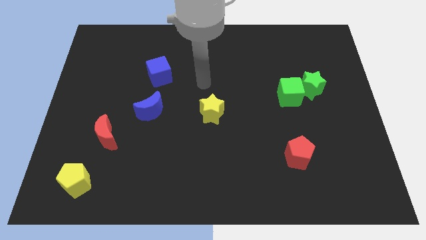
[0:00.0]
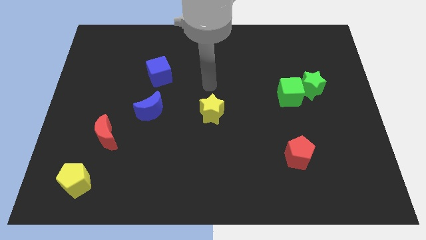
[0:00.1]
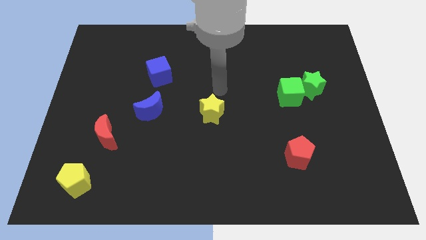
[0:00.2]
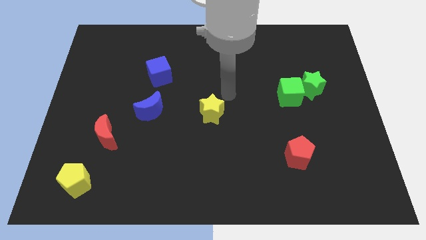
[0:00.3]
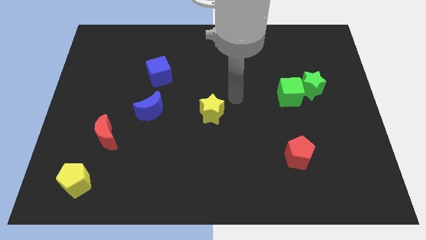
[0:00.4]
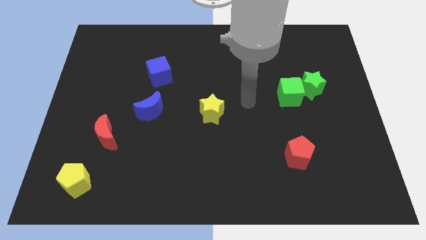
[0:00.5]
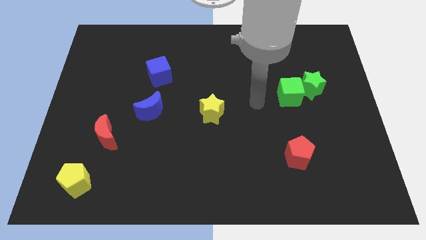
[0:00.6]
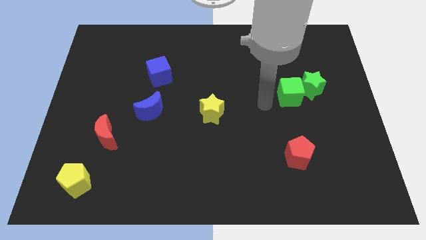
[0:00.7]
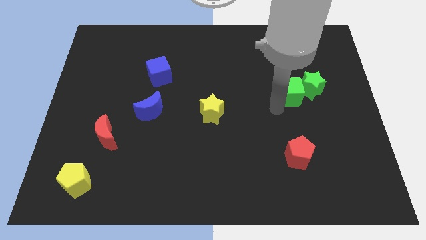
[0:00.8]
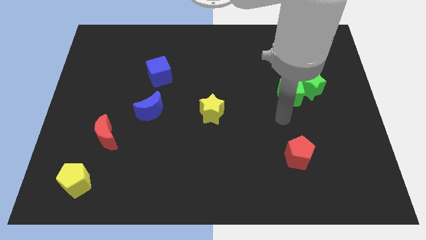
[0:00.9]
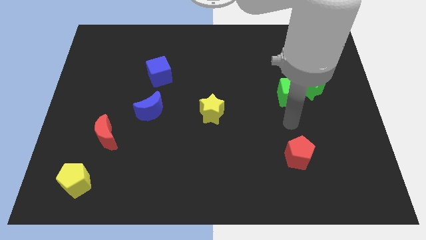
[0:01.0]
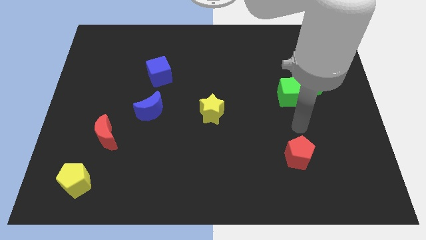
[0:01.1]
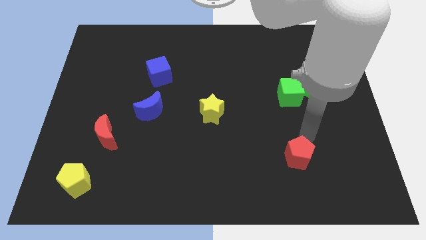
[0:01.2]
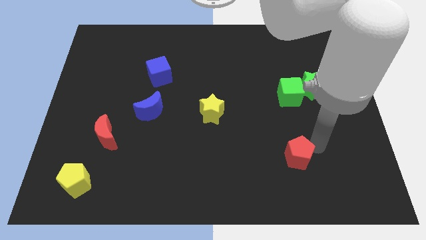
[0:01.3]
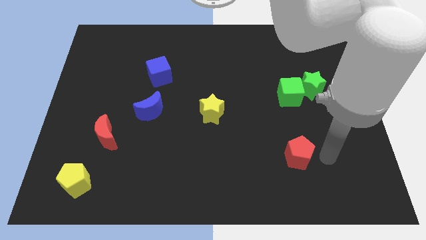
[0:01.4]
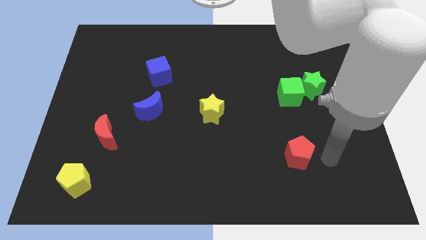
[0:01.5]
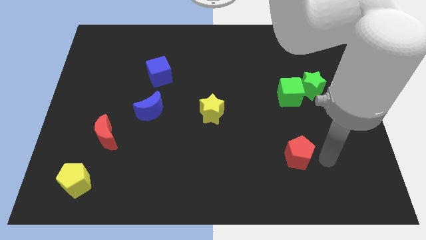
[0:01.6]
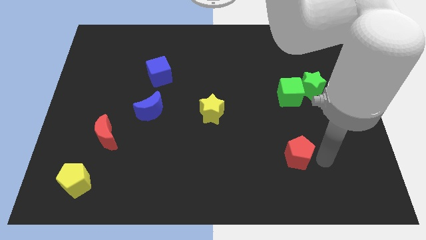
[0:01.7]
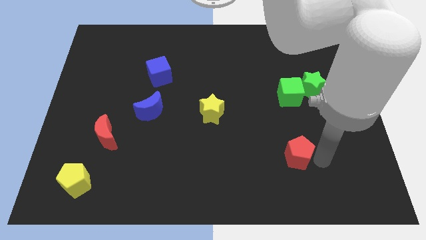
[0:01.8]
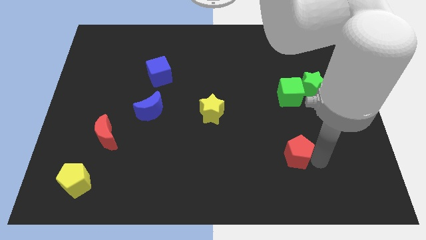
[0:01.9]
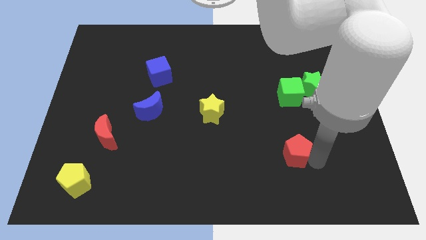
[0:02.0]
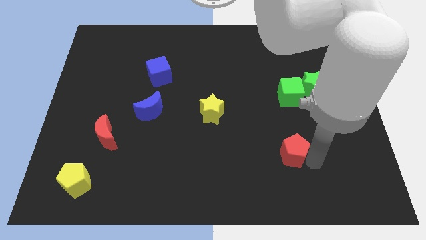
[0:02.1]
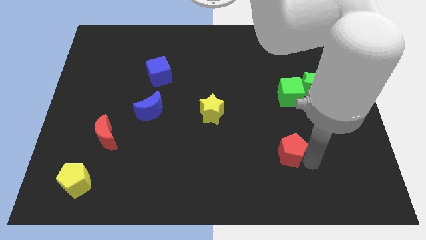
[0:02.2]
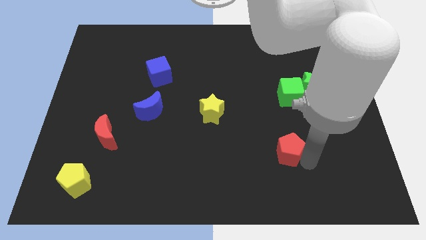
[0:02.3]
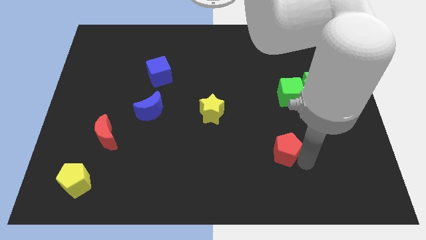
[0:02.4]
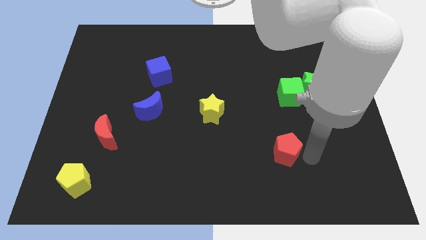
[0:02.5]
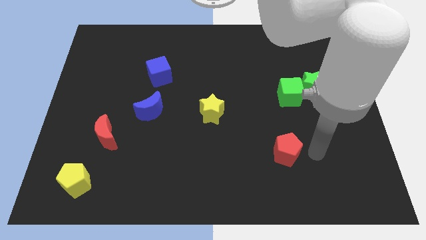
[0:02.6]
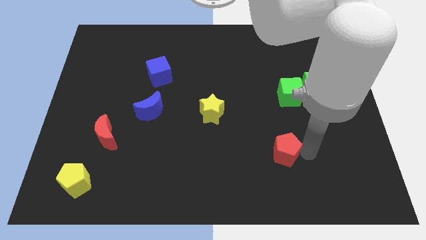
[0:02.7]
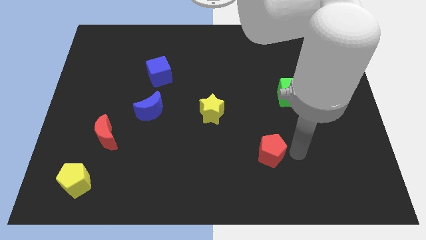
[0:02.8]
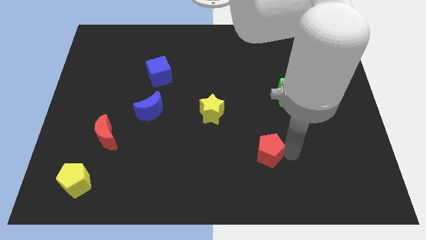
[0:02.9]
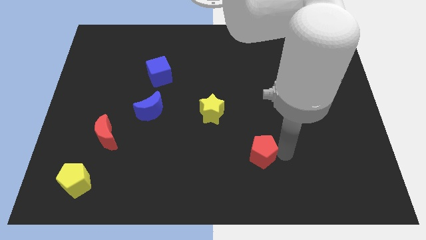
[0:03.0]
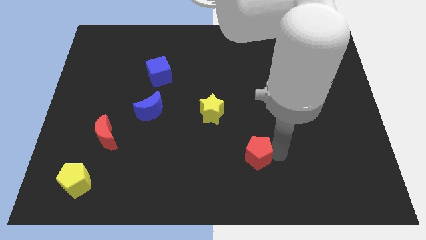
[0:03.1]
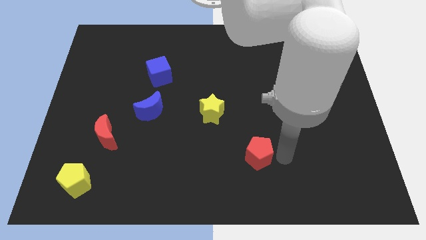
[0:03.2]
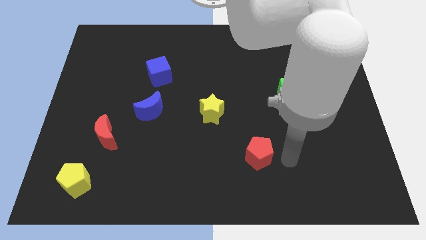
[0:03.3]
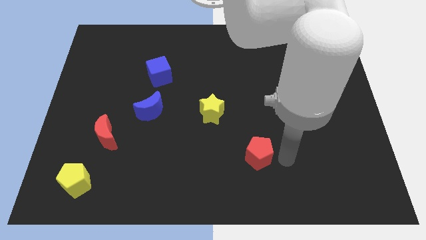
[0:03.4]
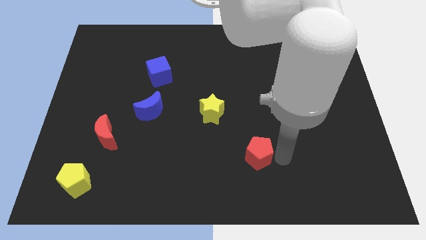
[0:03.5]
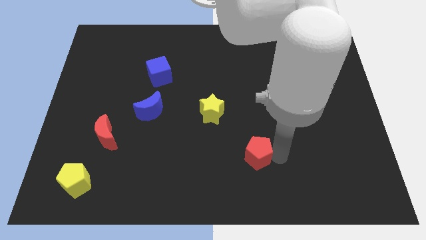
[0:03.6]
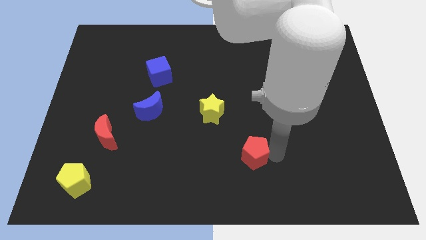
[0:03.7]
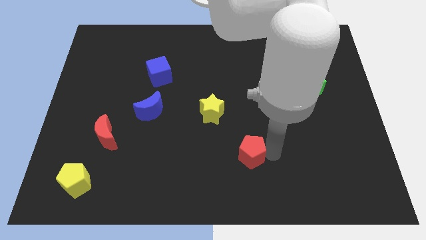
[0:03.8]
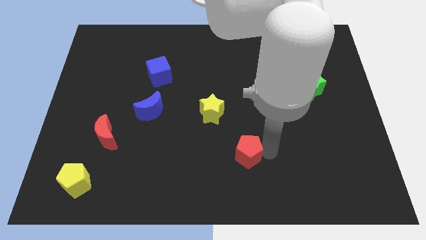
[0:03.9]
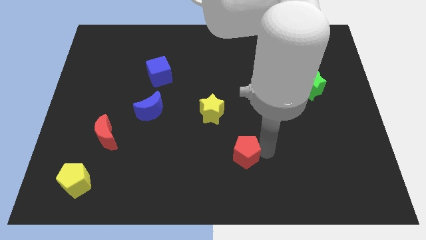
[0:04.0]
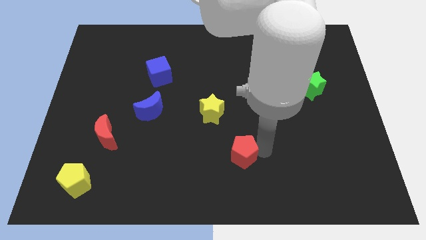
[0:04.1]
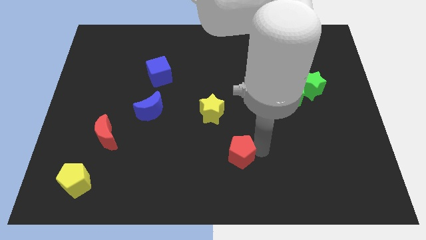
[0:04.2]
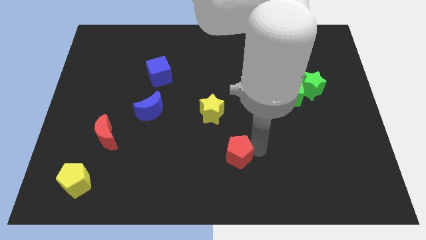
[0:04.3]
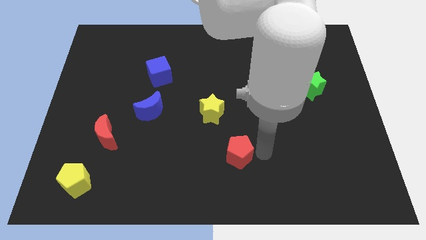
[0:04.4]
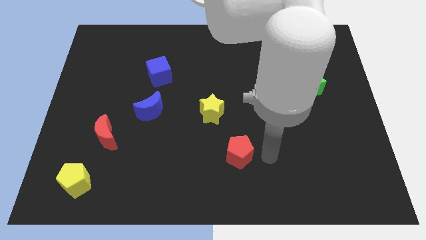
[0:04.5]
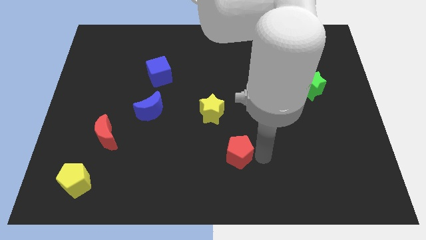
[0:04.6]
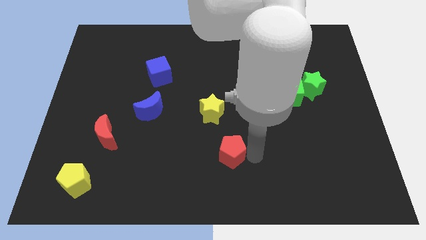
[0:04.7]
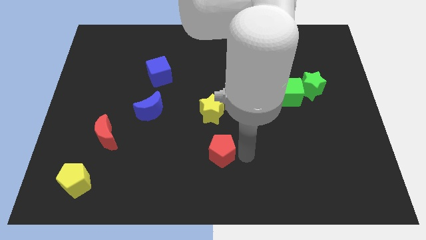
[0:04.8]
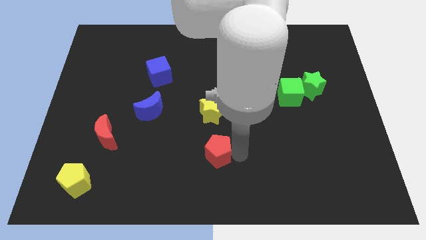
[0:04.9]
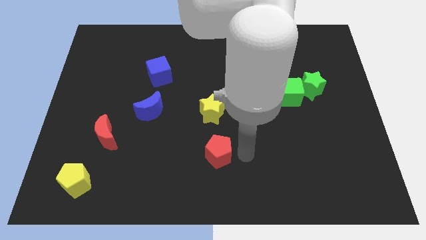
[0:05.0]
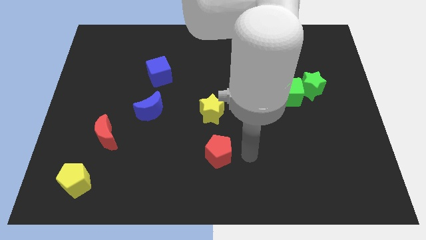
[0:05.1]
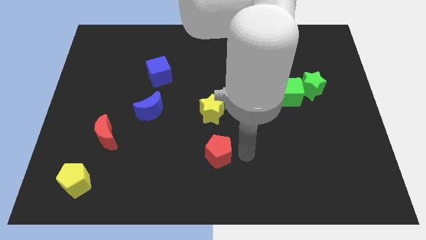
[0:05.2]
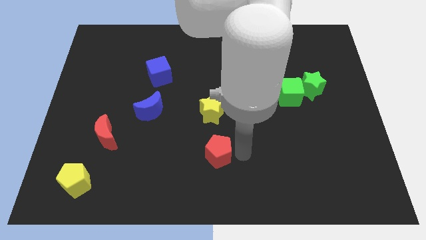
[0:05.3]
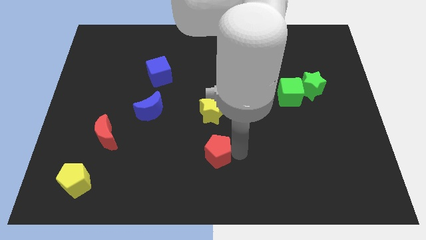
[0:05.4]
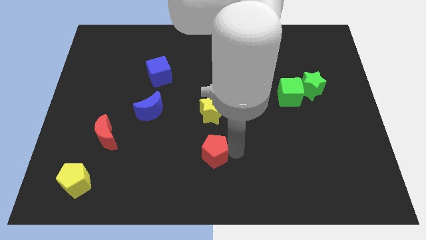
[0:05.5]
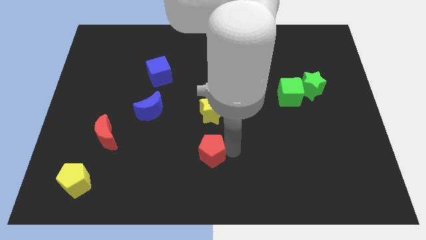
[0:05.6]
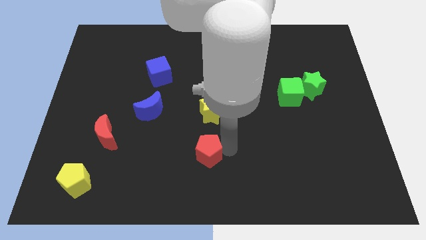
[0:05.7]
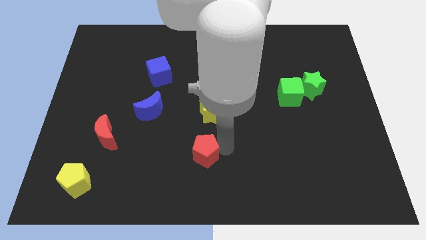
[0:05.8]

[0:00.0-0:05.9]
move the red pentagon left

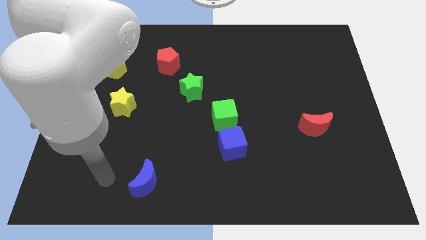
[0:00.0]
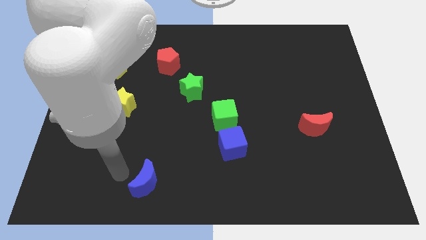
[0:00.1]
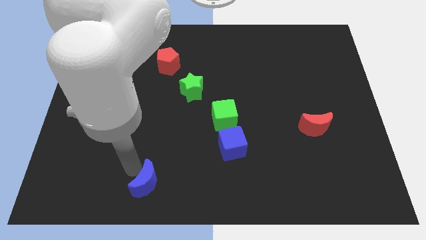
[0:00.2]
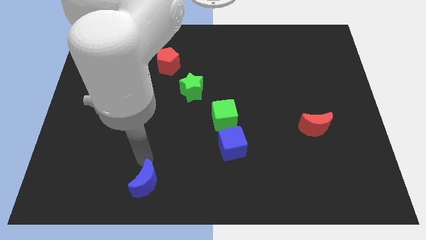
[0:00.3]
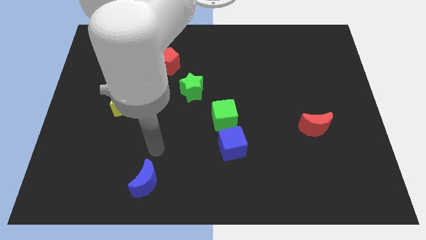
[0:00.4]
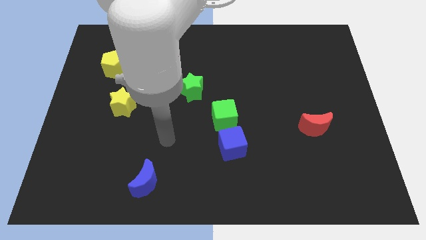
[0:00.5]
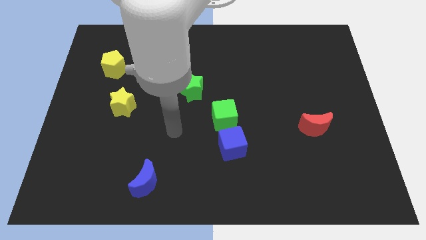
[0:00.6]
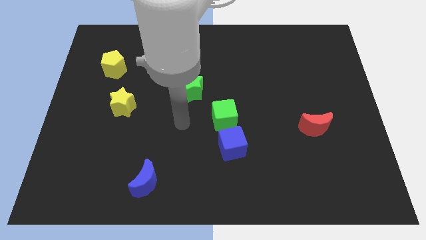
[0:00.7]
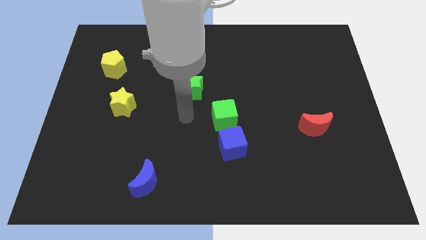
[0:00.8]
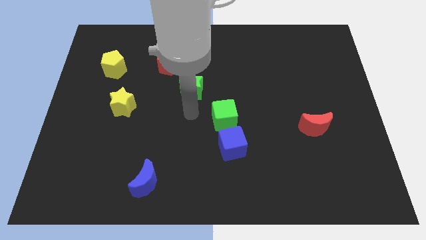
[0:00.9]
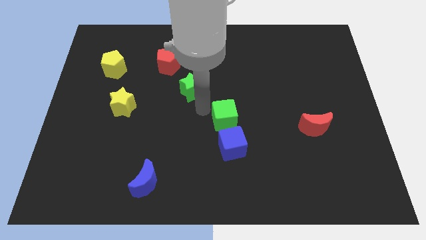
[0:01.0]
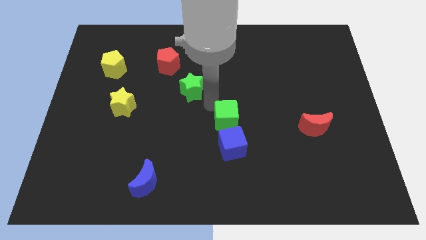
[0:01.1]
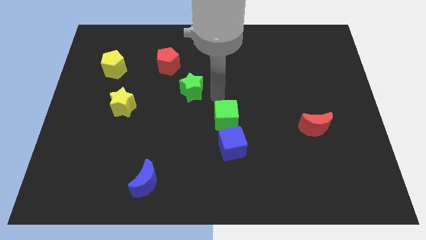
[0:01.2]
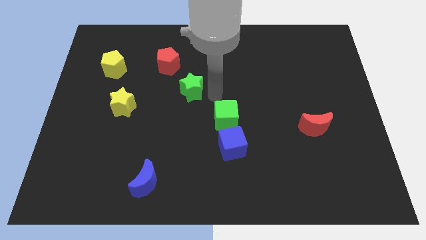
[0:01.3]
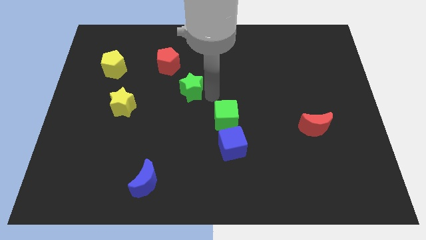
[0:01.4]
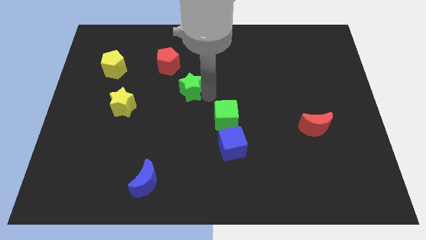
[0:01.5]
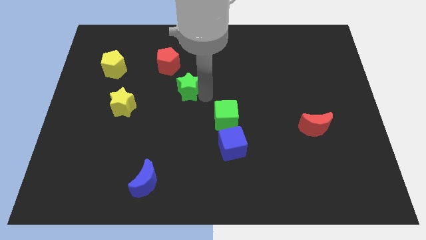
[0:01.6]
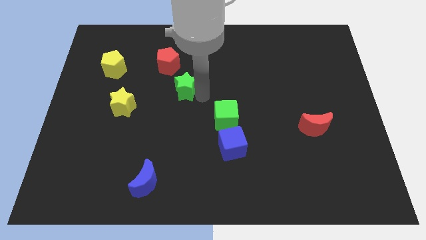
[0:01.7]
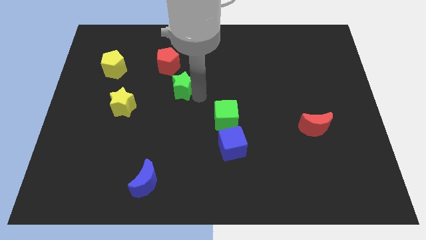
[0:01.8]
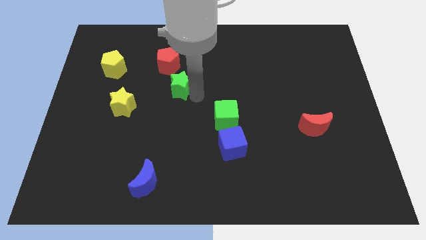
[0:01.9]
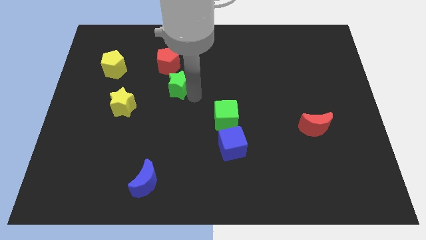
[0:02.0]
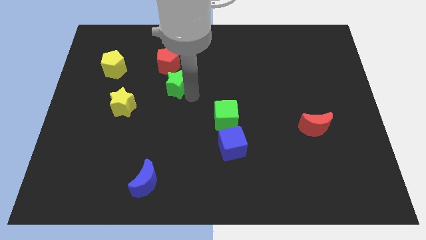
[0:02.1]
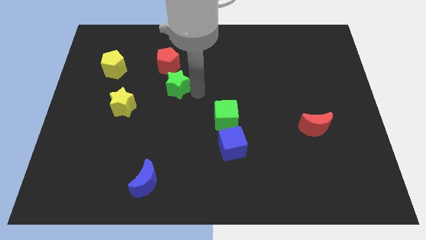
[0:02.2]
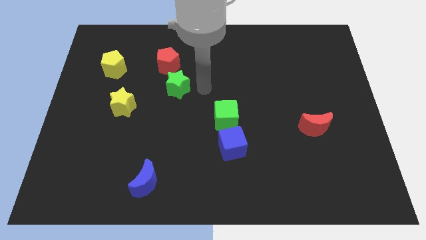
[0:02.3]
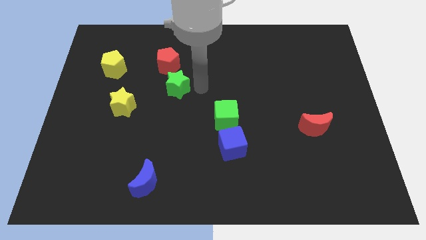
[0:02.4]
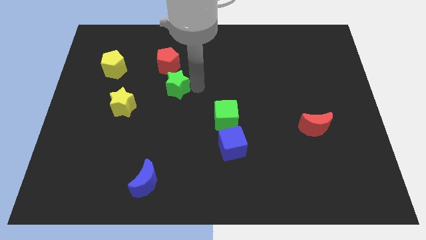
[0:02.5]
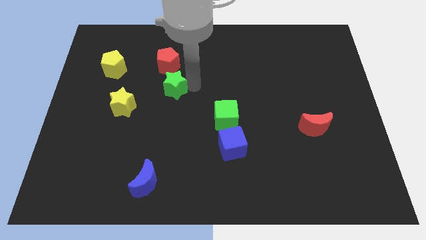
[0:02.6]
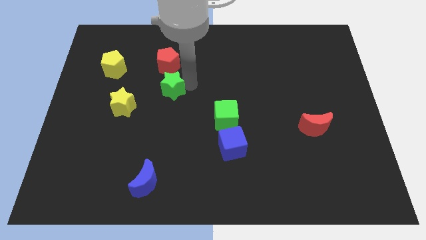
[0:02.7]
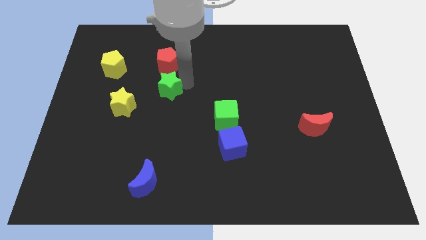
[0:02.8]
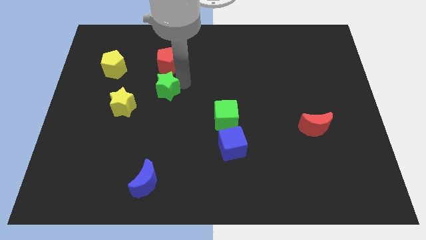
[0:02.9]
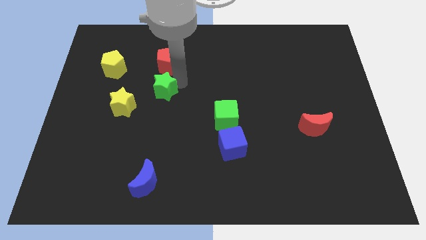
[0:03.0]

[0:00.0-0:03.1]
move the green star somewhat to the left
